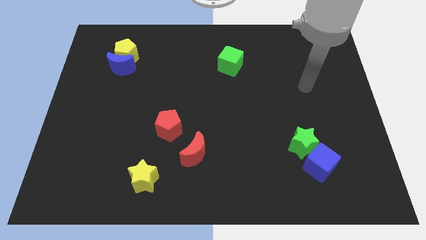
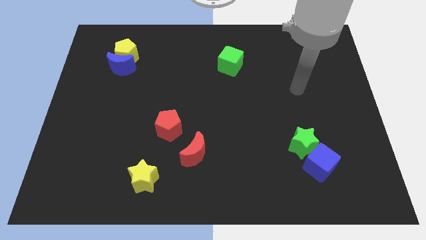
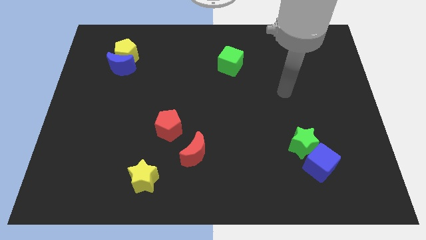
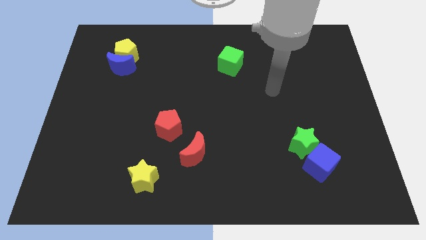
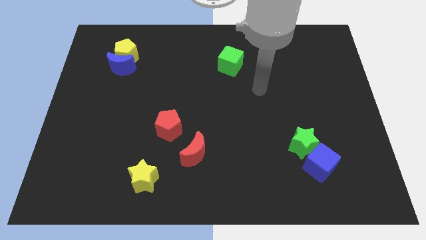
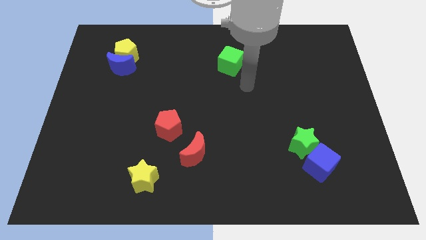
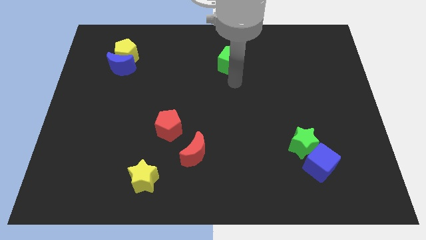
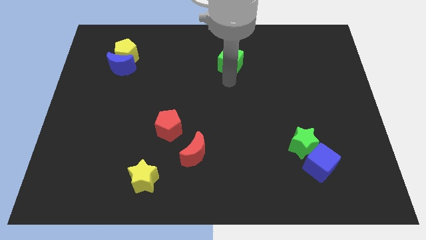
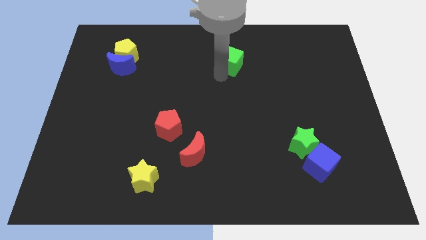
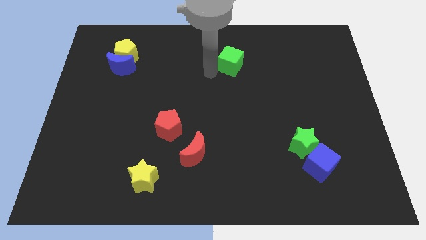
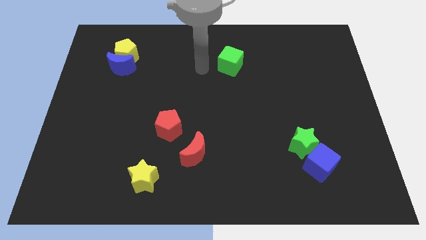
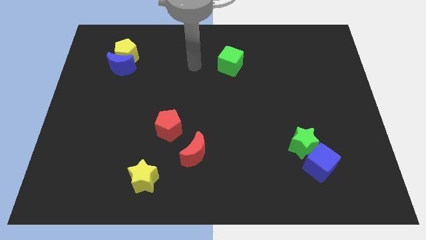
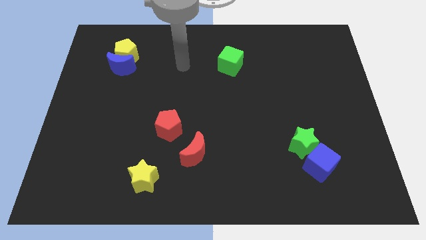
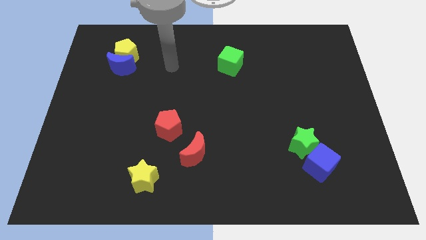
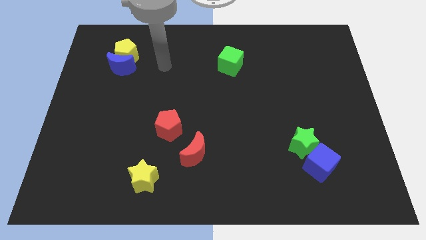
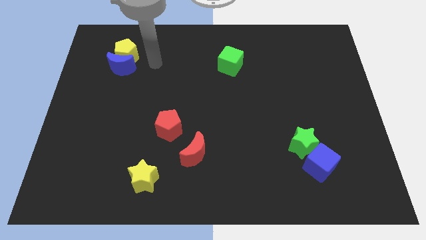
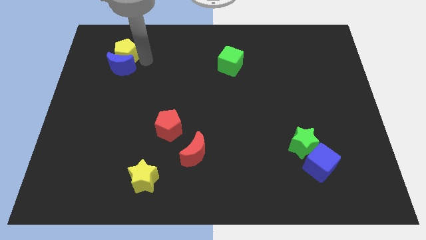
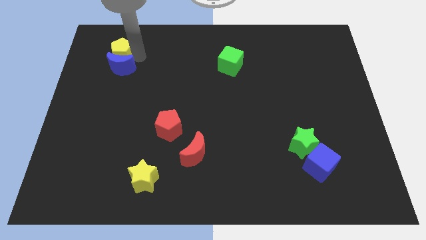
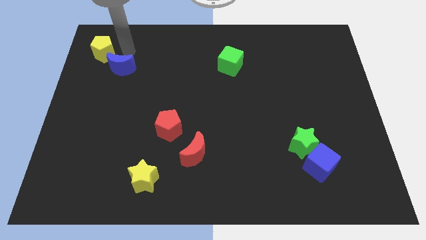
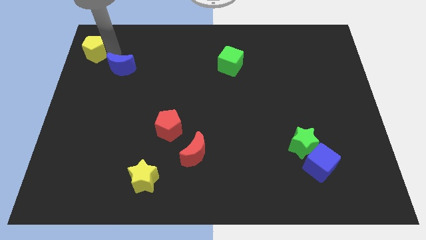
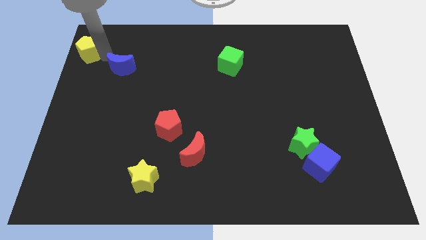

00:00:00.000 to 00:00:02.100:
move the blue moon away from the yellow pentagon

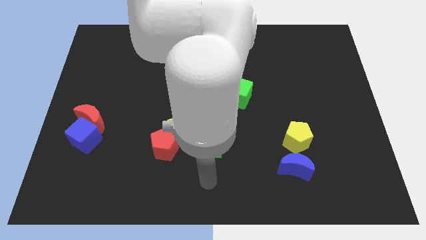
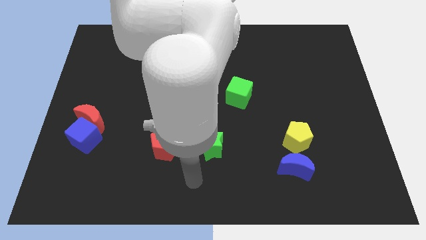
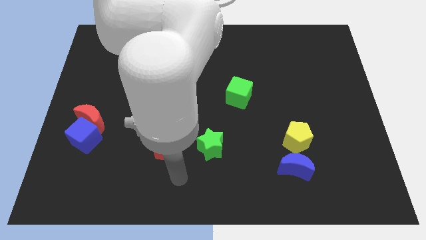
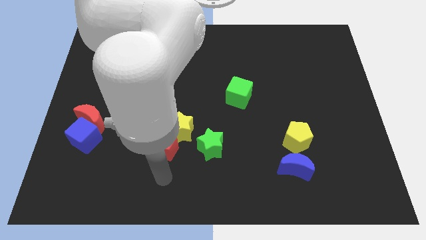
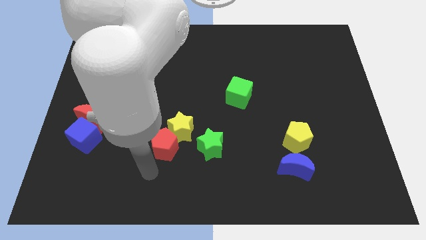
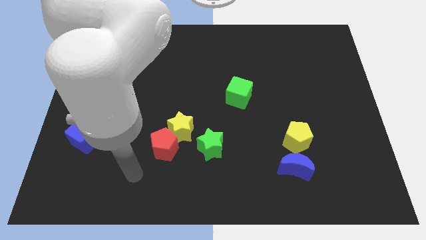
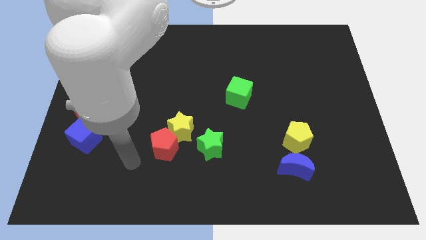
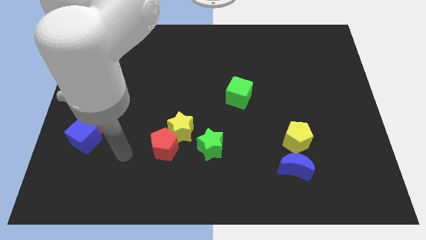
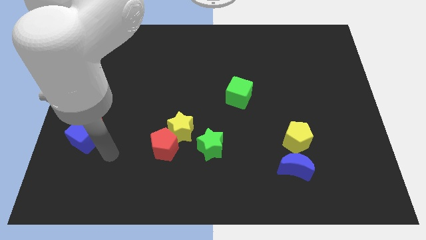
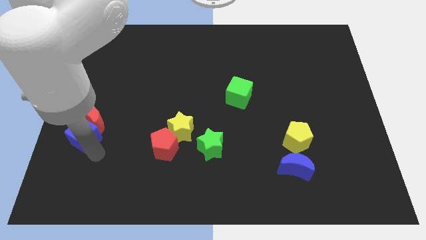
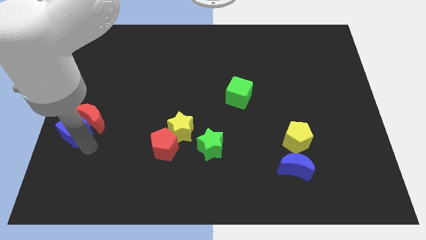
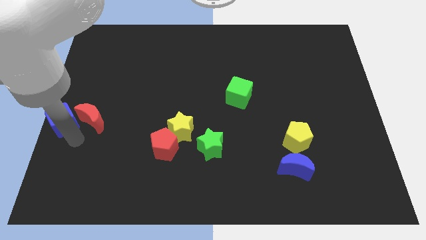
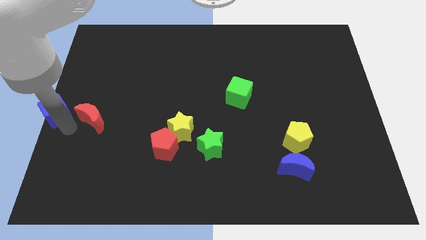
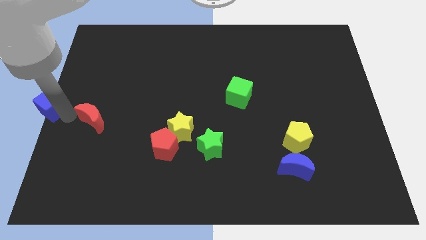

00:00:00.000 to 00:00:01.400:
pull the red moon apart from the blue cube

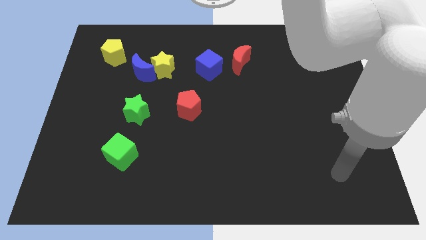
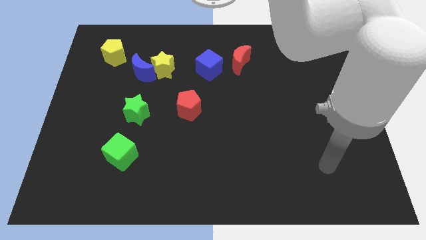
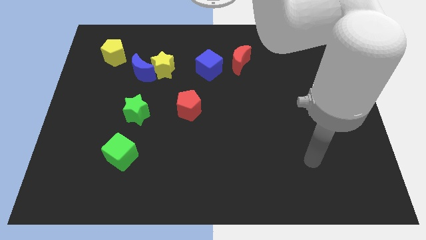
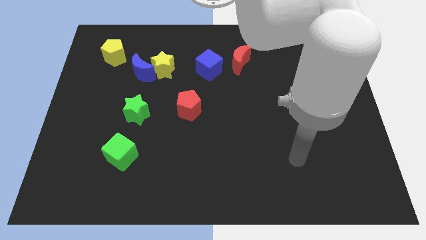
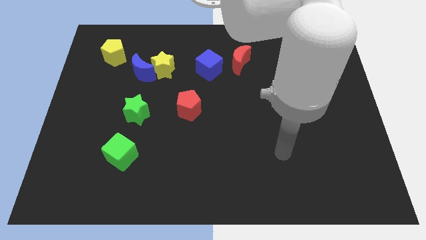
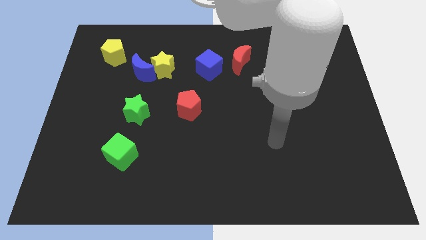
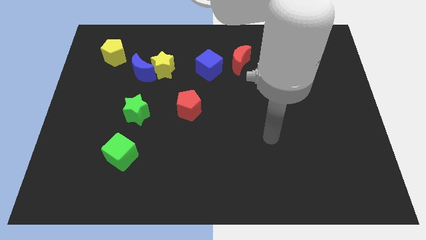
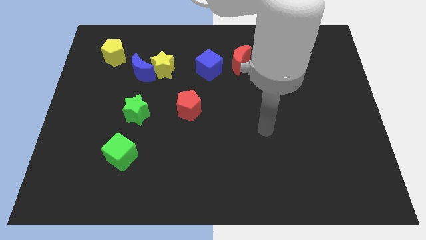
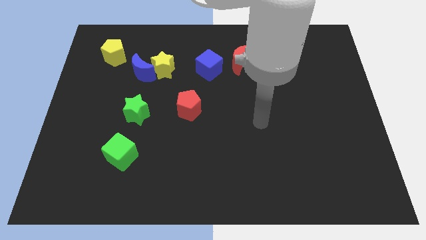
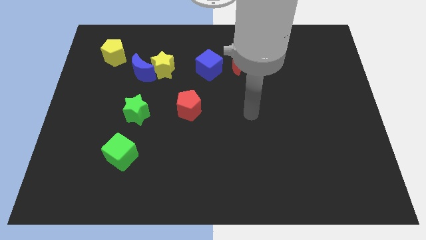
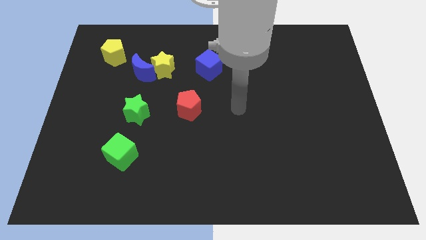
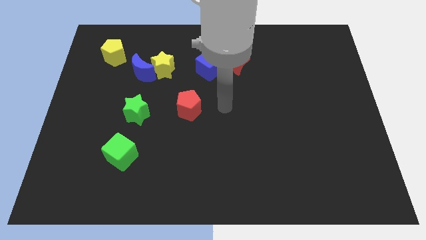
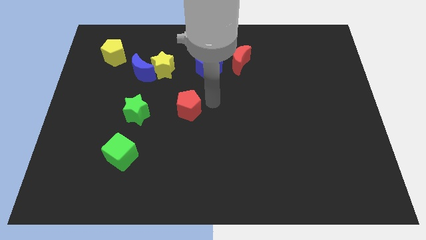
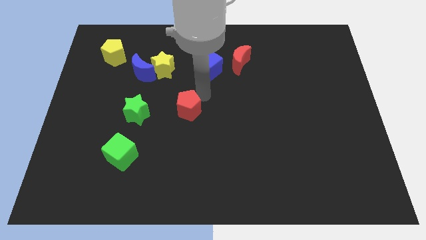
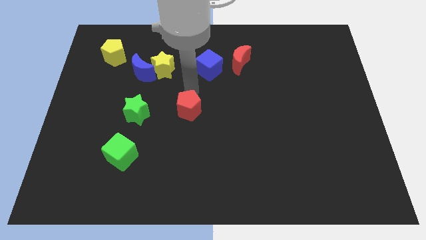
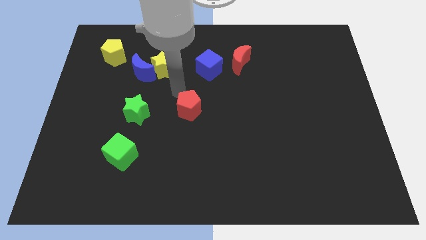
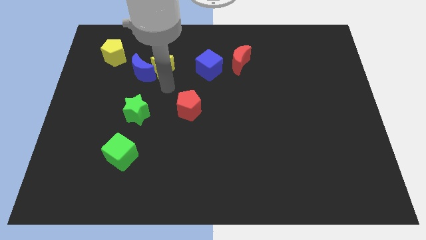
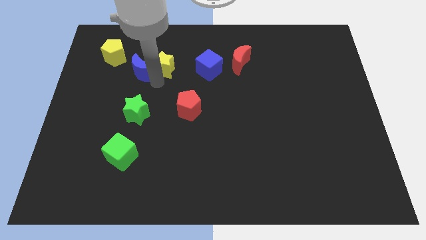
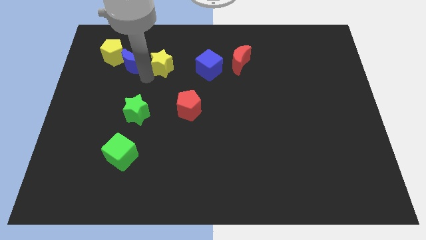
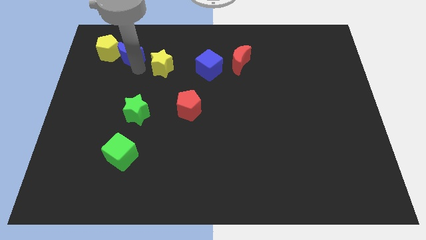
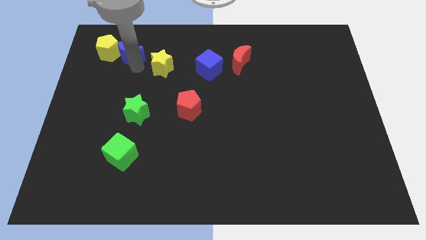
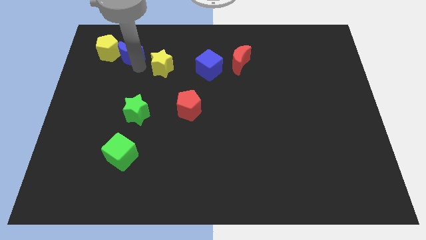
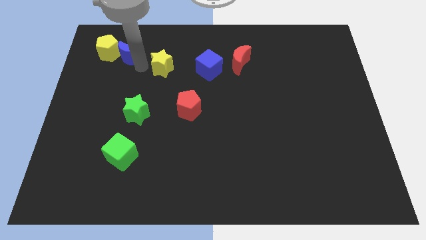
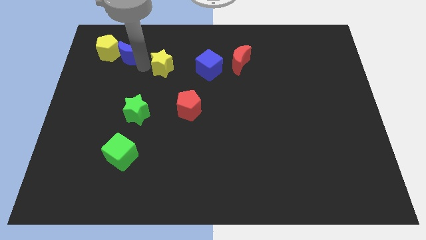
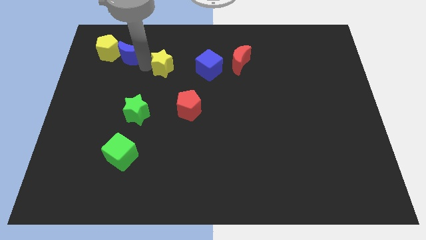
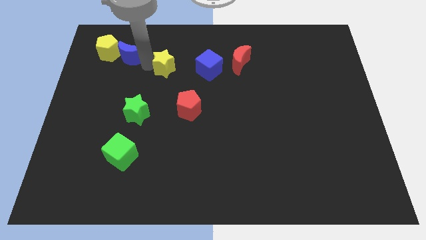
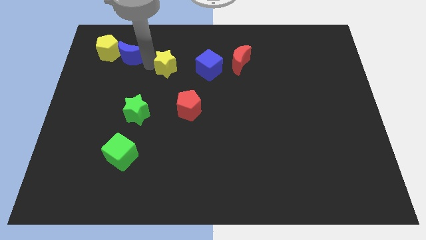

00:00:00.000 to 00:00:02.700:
move the yellow star away from the blue moon

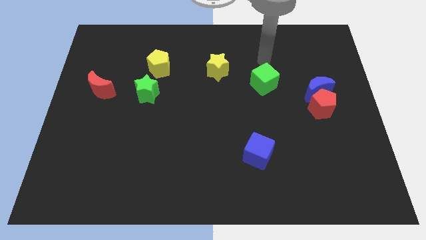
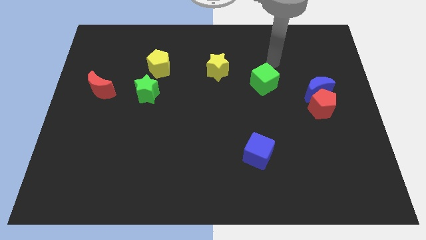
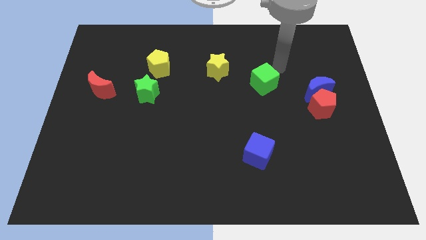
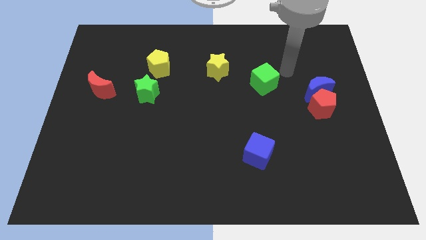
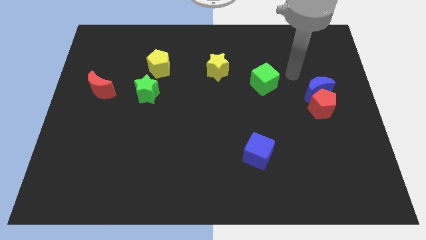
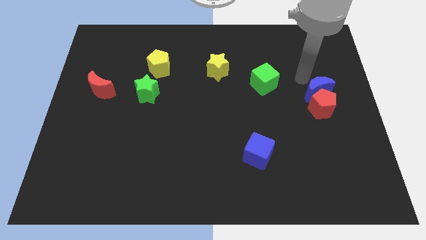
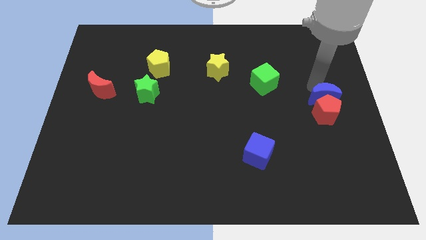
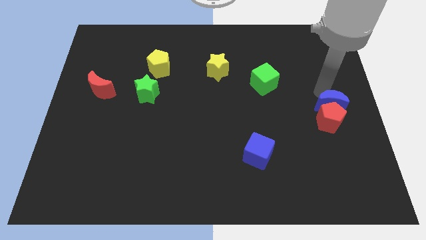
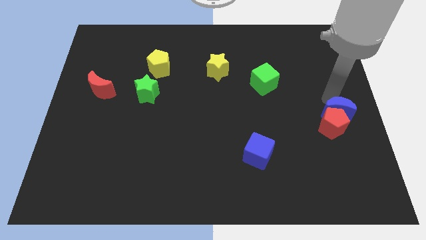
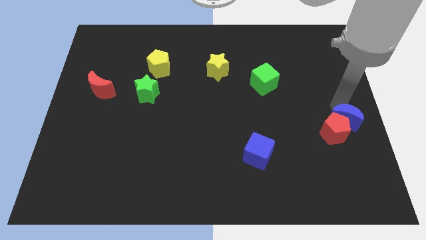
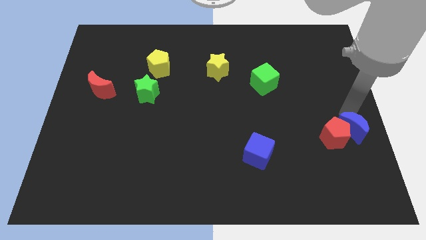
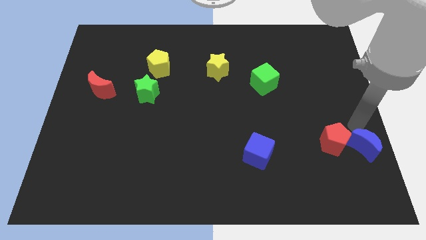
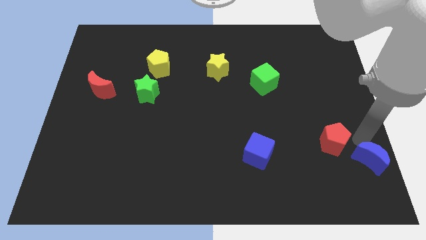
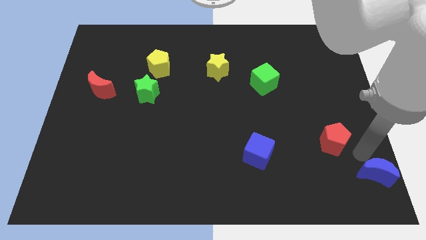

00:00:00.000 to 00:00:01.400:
separate the red pentagon from the blue moon

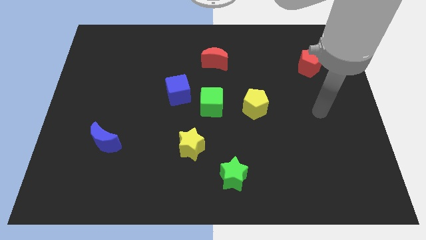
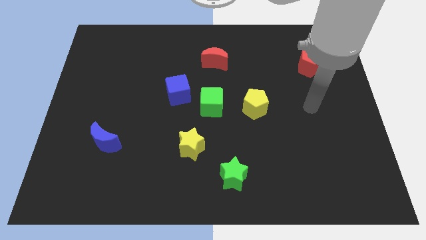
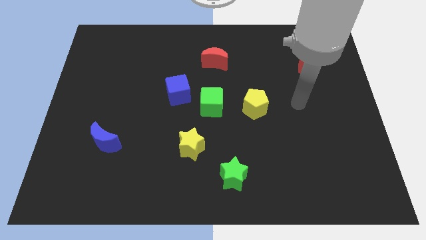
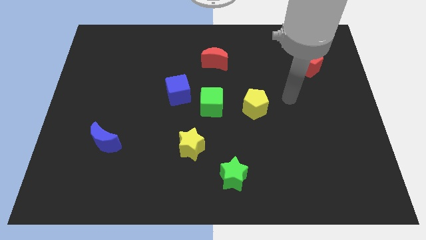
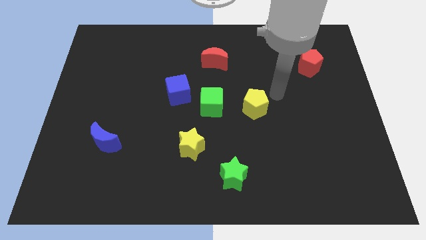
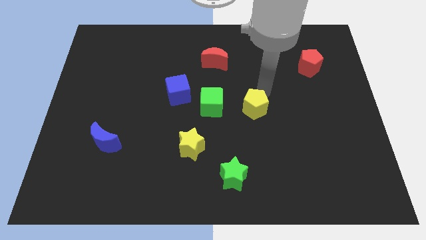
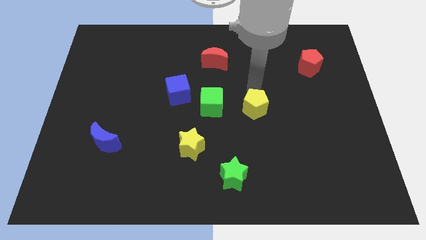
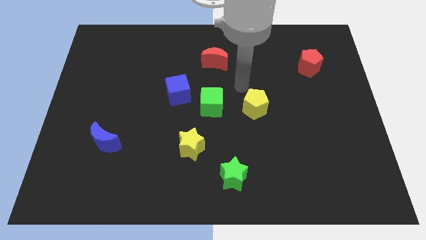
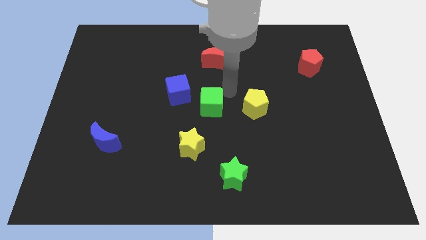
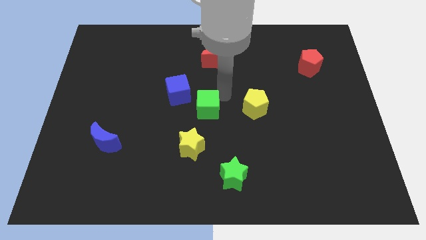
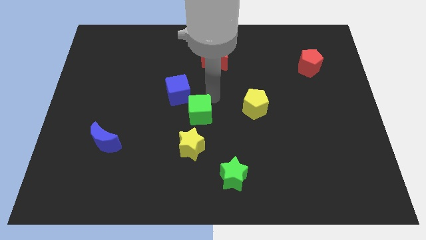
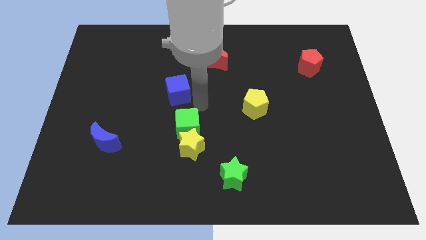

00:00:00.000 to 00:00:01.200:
separate the blue cube from the green cube

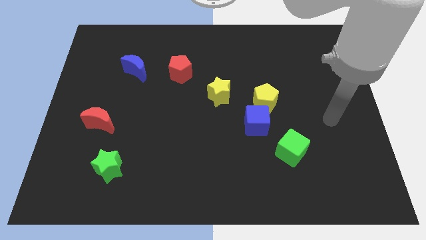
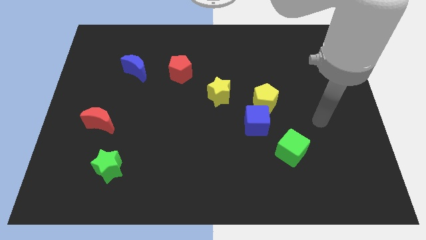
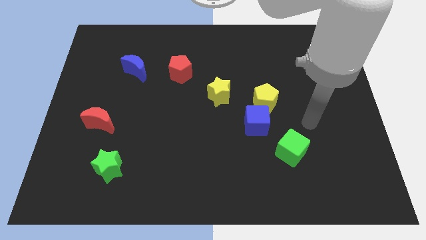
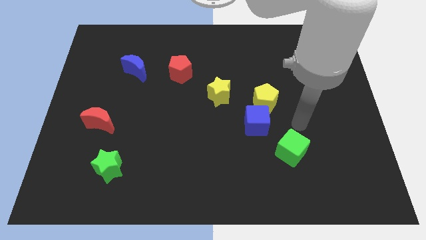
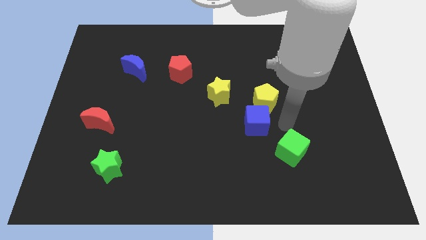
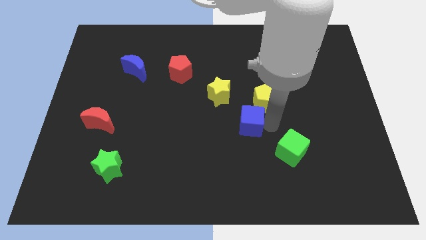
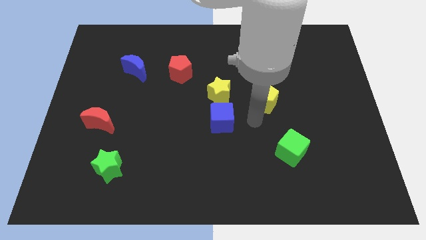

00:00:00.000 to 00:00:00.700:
separate the yellow pentagon from the blue cube
